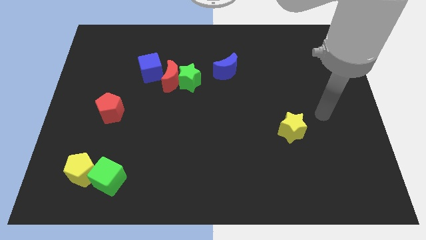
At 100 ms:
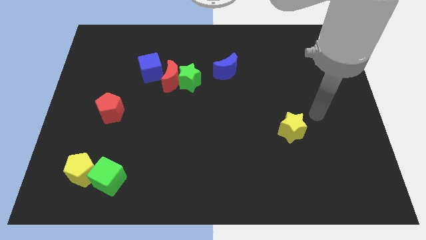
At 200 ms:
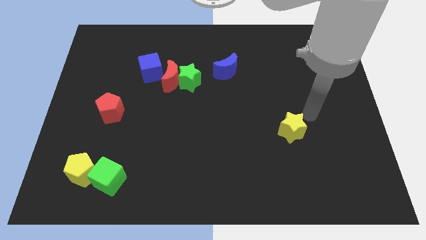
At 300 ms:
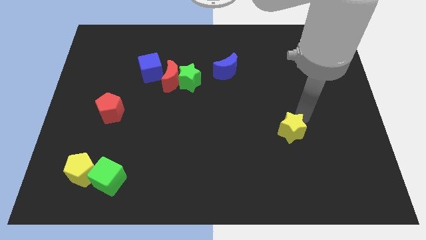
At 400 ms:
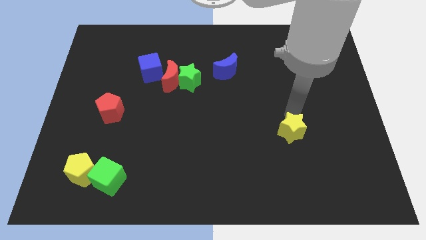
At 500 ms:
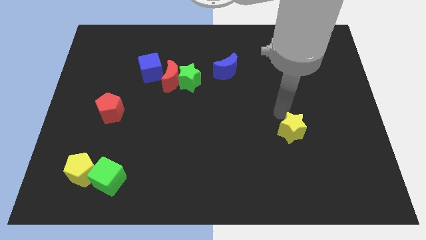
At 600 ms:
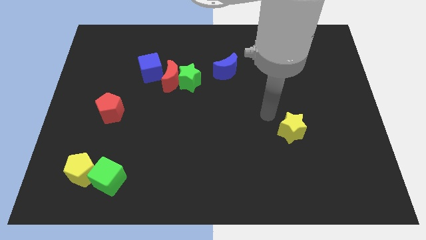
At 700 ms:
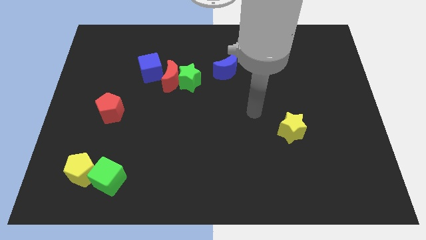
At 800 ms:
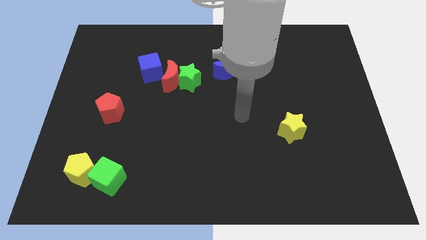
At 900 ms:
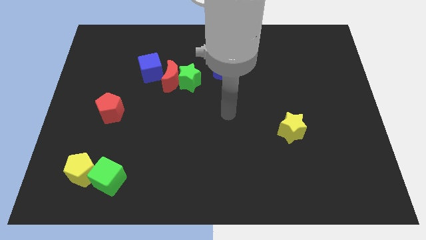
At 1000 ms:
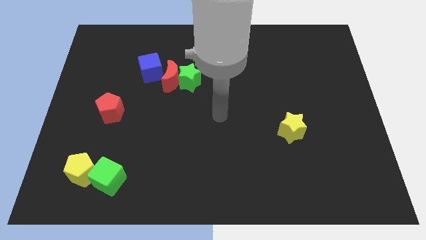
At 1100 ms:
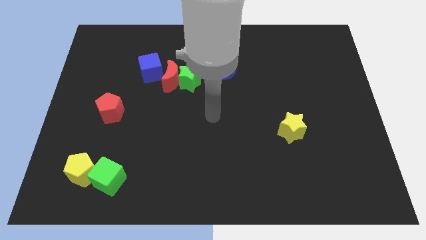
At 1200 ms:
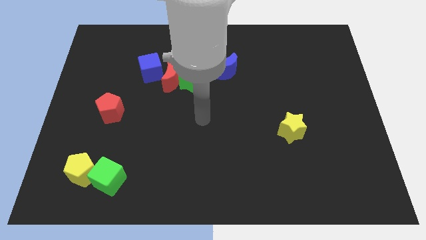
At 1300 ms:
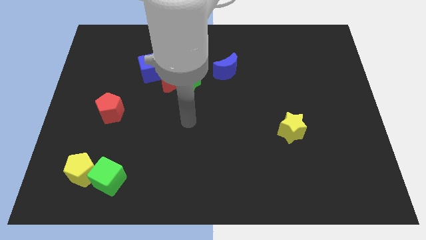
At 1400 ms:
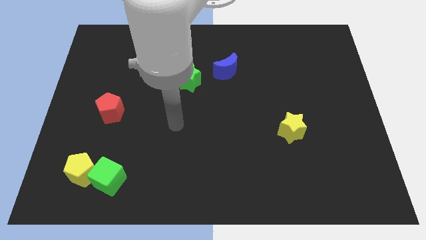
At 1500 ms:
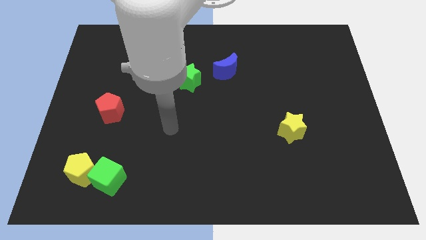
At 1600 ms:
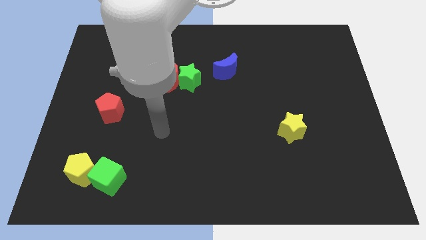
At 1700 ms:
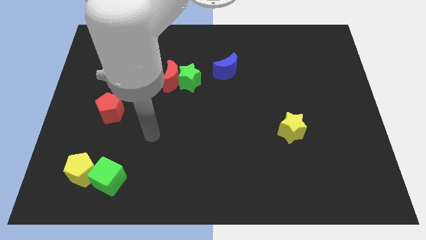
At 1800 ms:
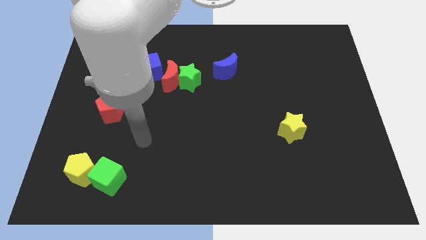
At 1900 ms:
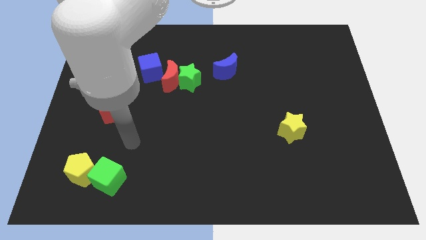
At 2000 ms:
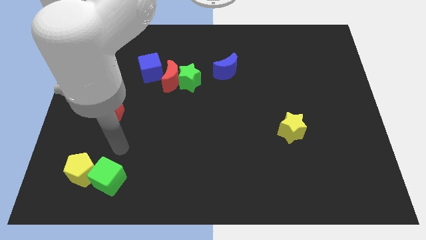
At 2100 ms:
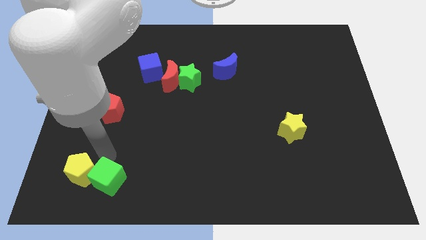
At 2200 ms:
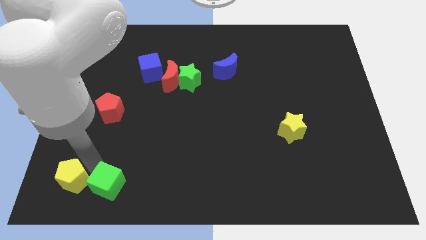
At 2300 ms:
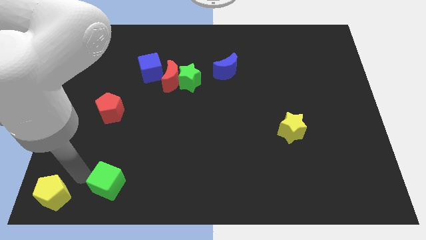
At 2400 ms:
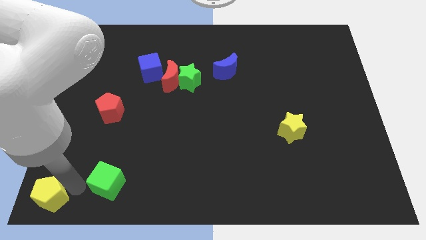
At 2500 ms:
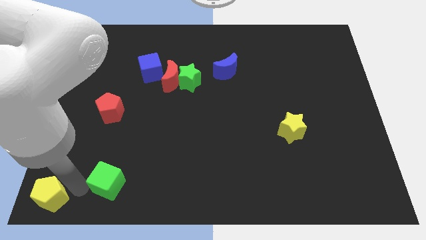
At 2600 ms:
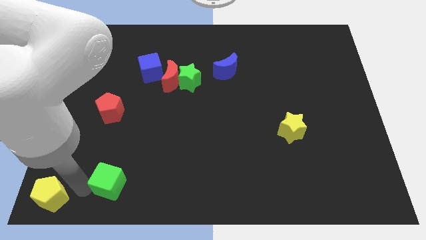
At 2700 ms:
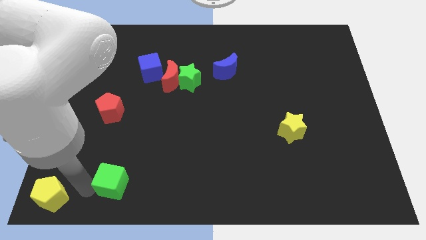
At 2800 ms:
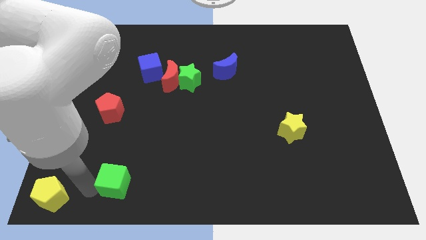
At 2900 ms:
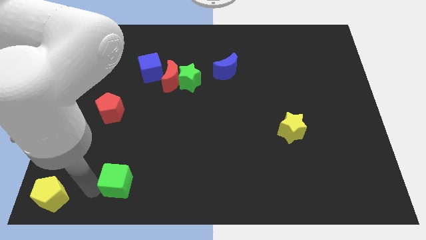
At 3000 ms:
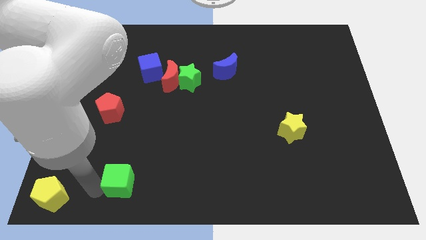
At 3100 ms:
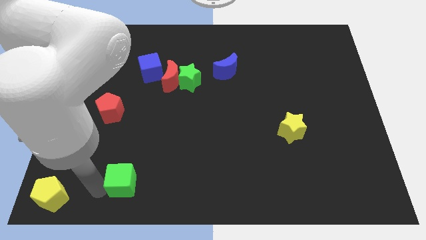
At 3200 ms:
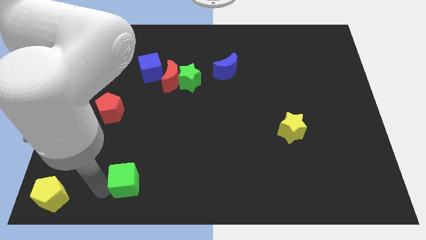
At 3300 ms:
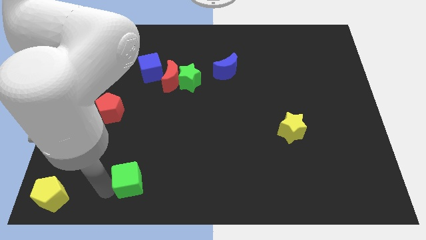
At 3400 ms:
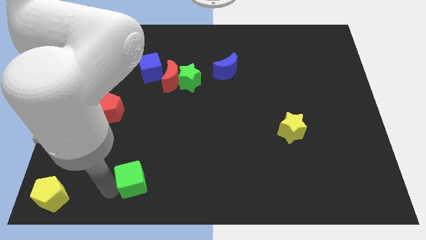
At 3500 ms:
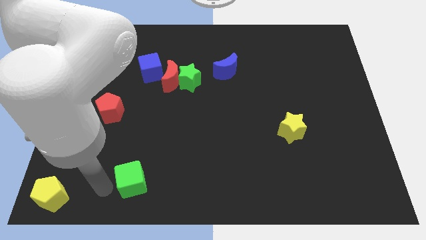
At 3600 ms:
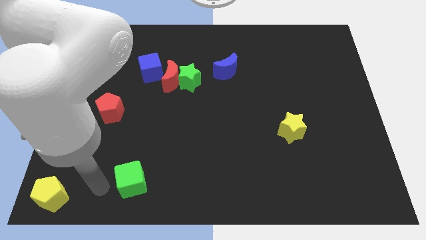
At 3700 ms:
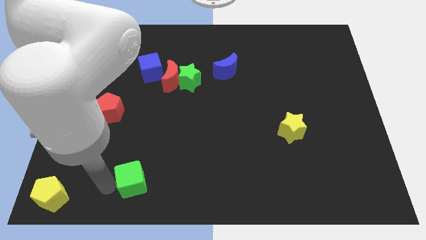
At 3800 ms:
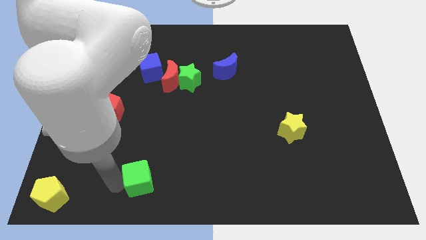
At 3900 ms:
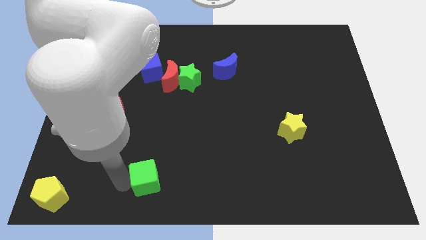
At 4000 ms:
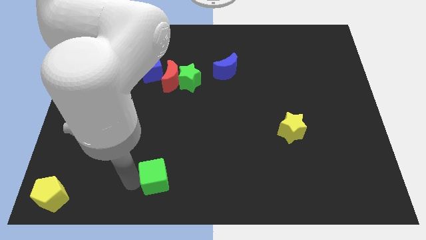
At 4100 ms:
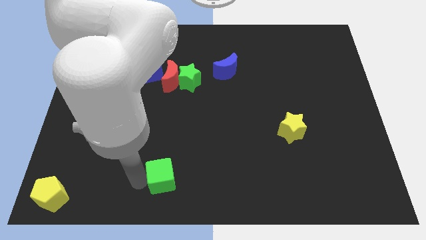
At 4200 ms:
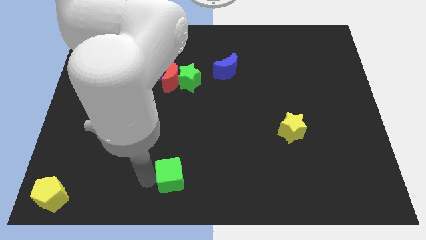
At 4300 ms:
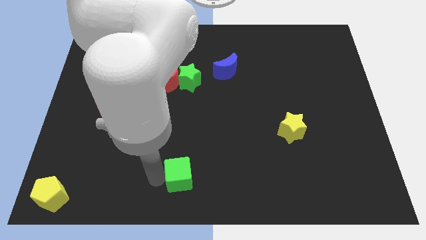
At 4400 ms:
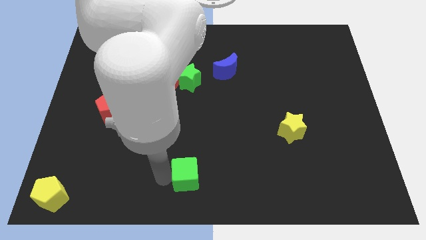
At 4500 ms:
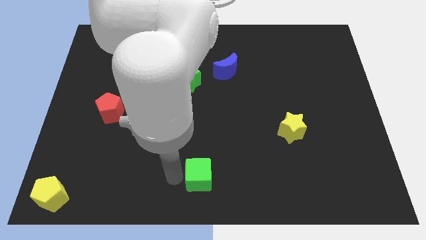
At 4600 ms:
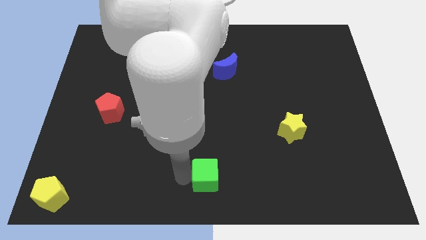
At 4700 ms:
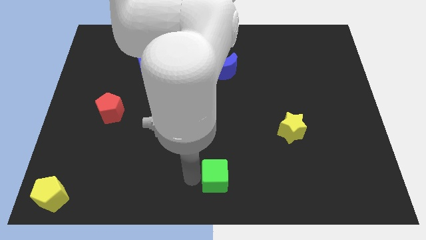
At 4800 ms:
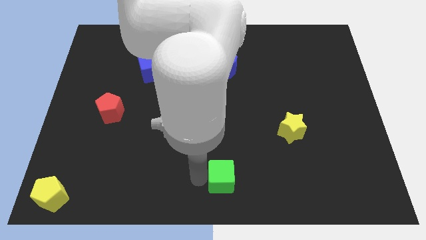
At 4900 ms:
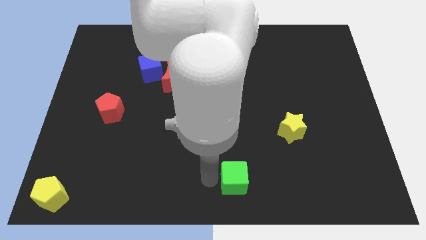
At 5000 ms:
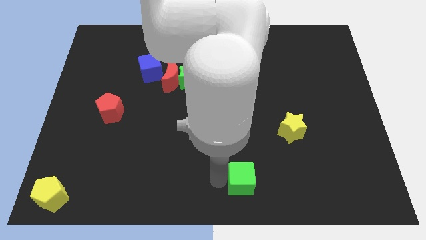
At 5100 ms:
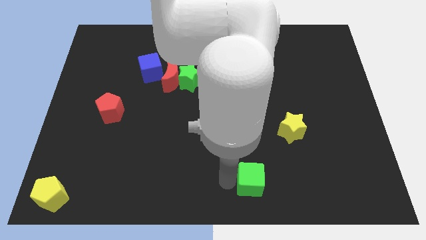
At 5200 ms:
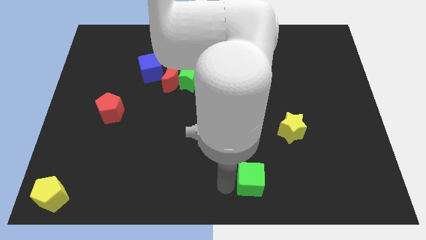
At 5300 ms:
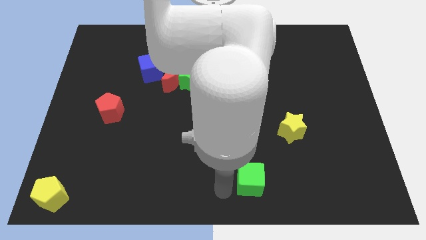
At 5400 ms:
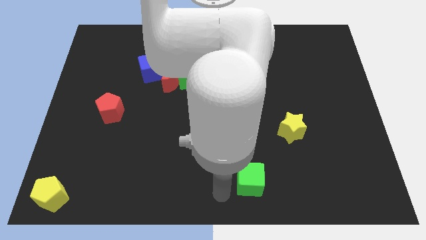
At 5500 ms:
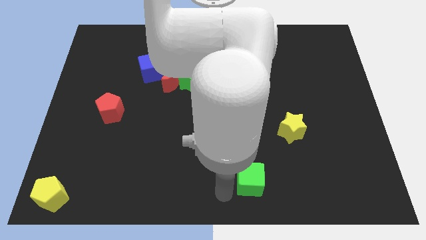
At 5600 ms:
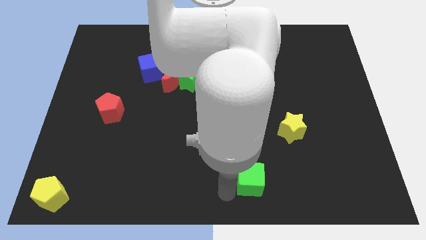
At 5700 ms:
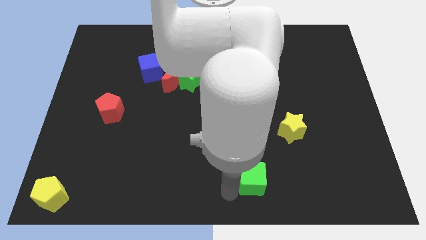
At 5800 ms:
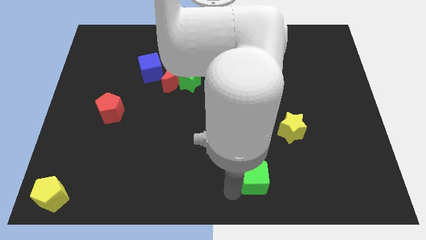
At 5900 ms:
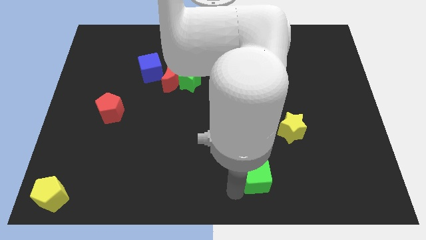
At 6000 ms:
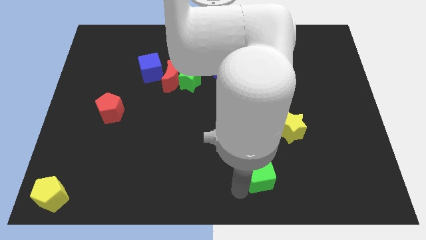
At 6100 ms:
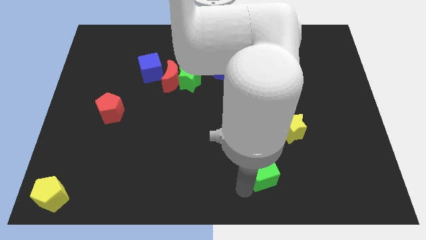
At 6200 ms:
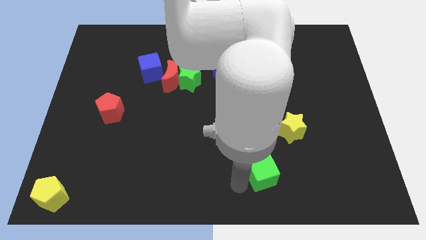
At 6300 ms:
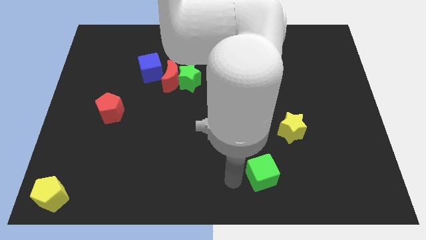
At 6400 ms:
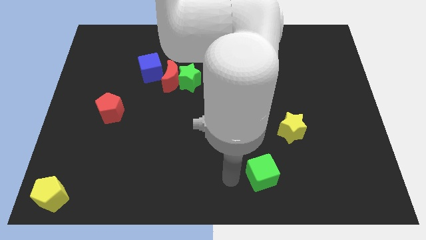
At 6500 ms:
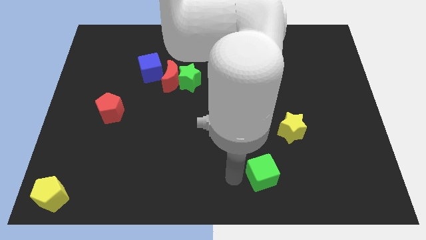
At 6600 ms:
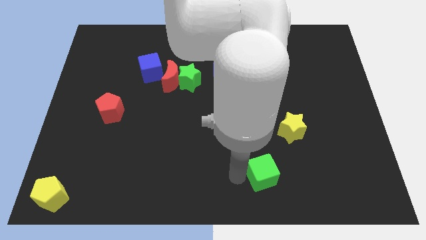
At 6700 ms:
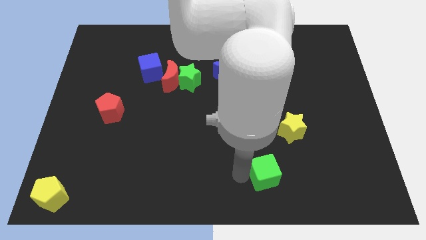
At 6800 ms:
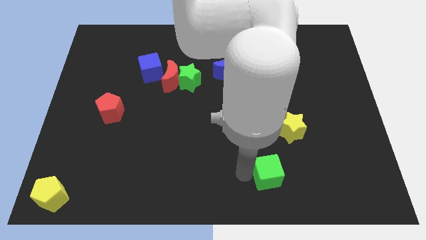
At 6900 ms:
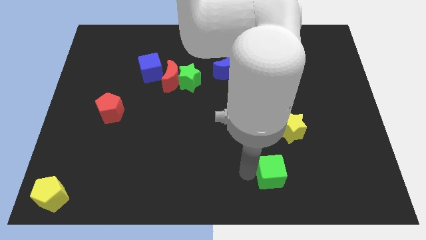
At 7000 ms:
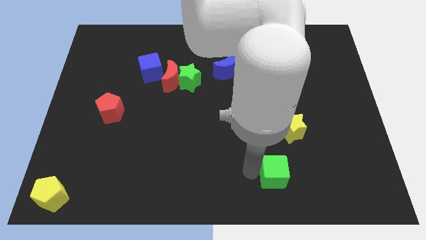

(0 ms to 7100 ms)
move the green cube to the bottom side of the yellow star
